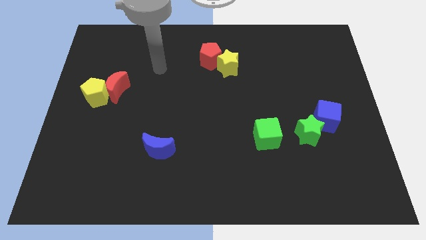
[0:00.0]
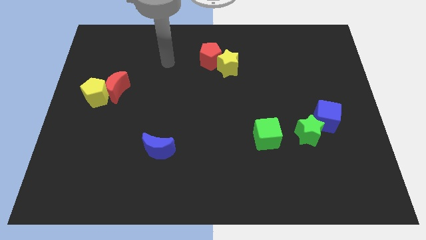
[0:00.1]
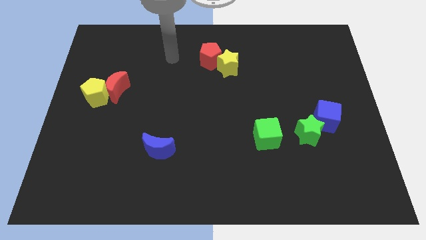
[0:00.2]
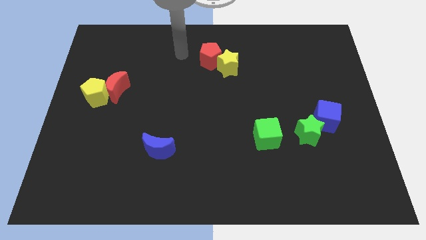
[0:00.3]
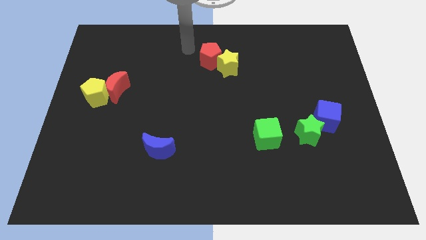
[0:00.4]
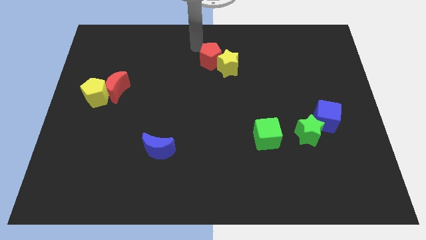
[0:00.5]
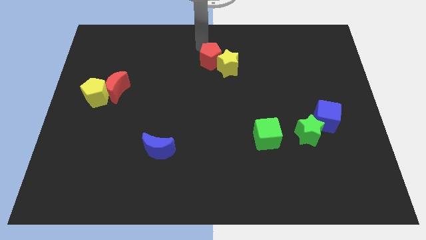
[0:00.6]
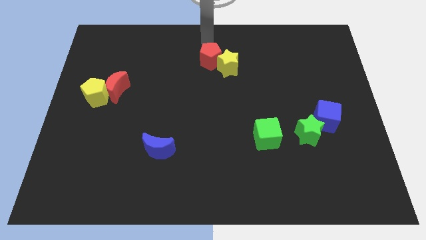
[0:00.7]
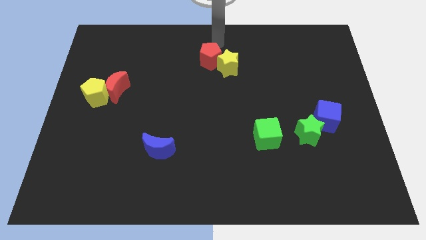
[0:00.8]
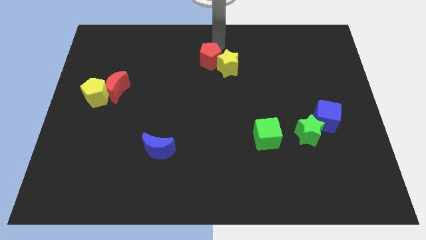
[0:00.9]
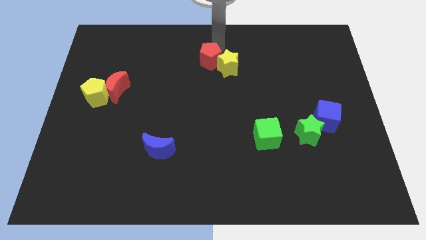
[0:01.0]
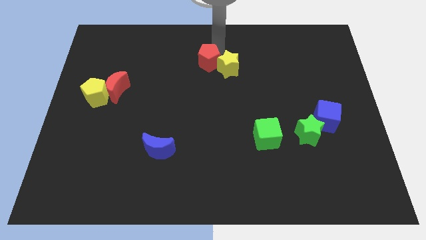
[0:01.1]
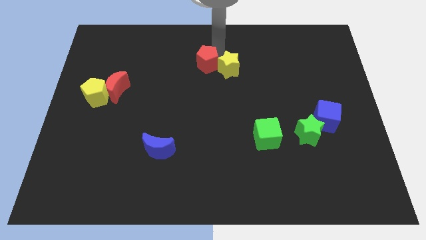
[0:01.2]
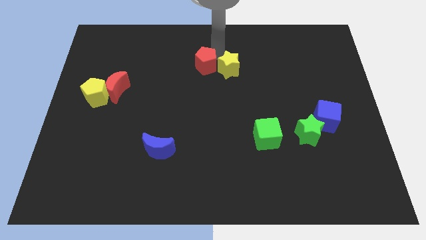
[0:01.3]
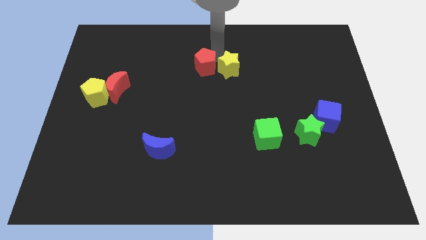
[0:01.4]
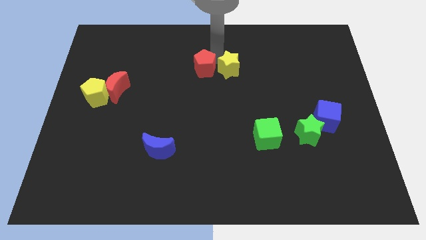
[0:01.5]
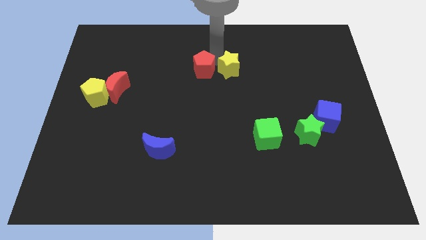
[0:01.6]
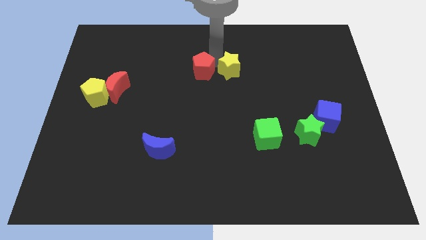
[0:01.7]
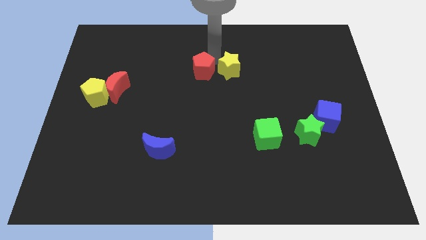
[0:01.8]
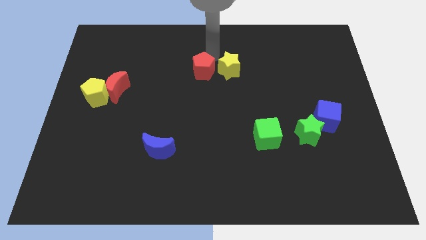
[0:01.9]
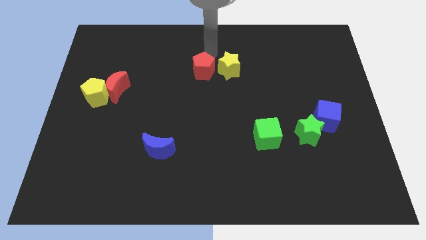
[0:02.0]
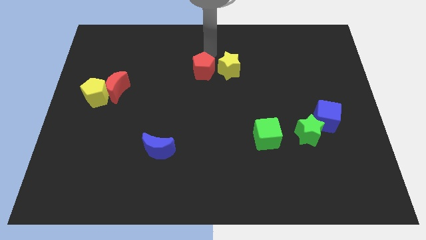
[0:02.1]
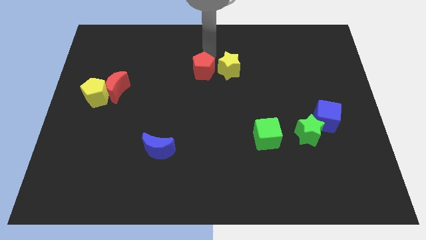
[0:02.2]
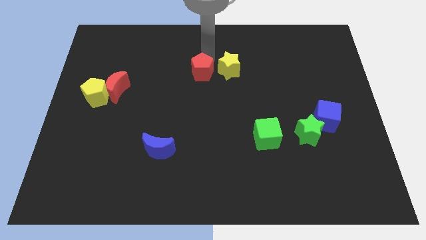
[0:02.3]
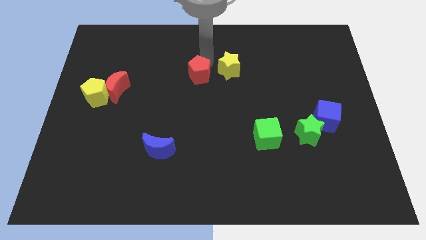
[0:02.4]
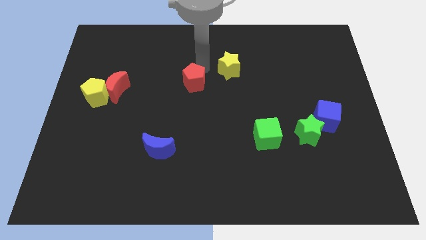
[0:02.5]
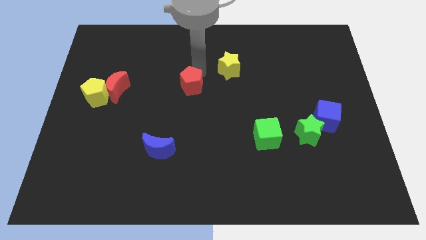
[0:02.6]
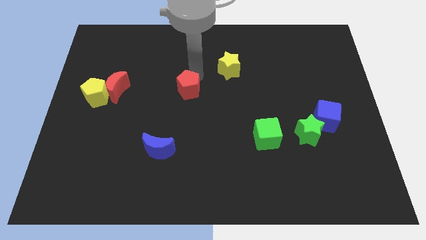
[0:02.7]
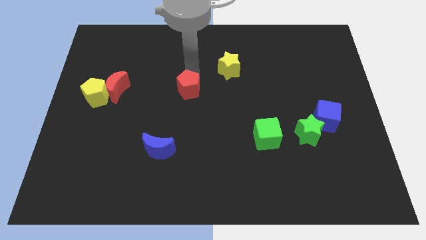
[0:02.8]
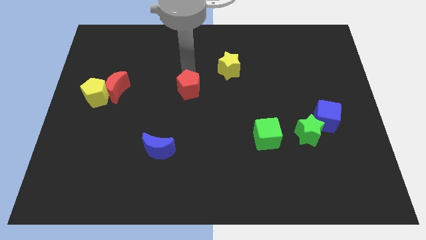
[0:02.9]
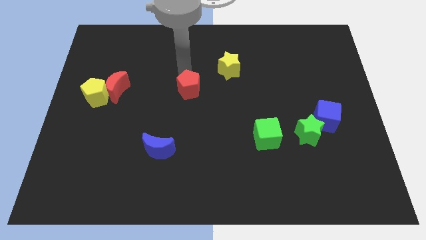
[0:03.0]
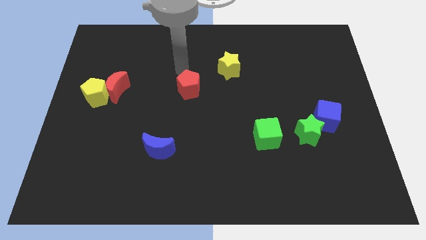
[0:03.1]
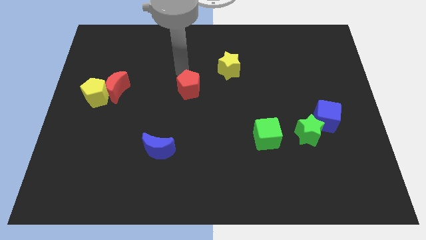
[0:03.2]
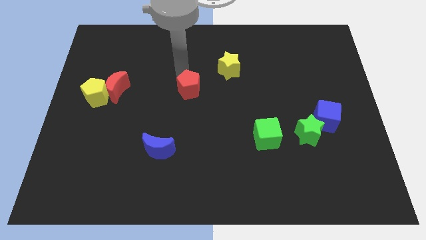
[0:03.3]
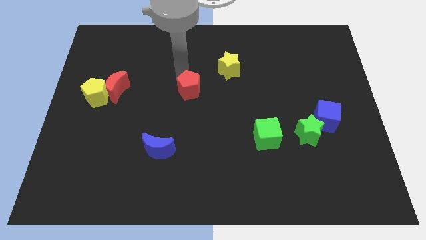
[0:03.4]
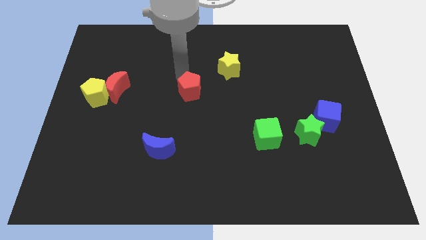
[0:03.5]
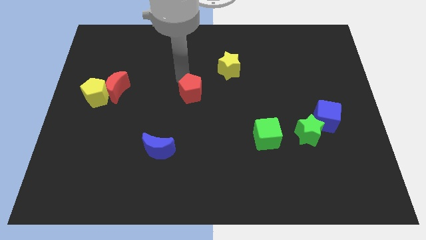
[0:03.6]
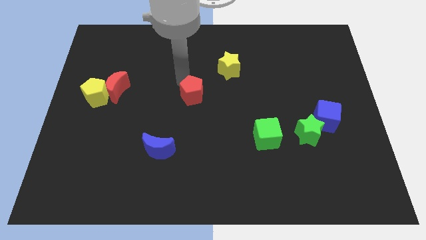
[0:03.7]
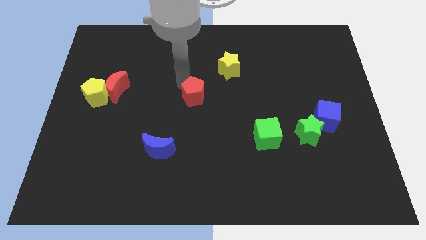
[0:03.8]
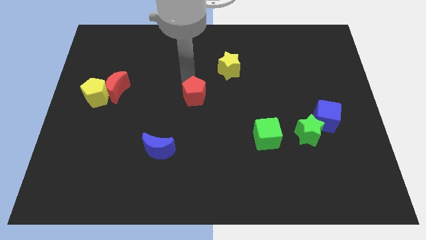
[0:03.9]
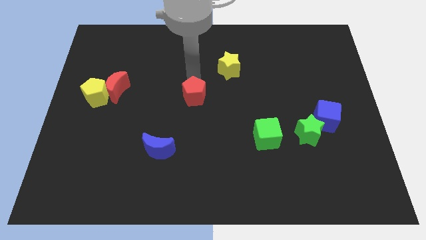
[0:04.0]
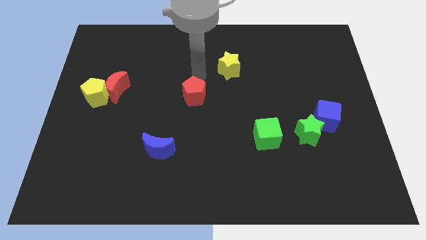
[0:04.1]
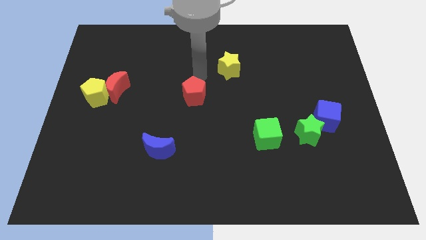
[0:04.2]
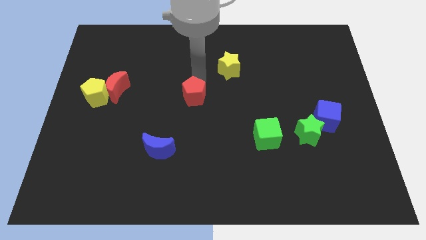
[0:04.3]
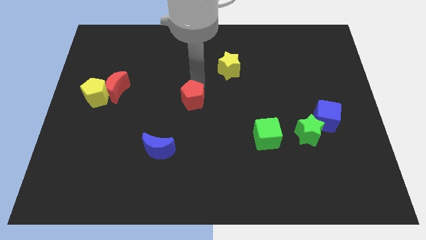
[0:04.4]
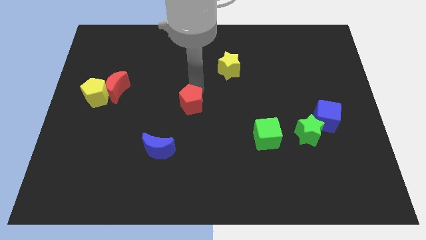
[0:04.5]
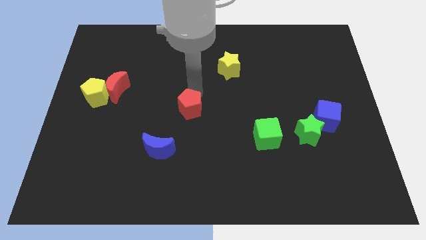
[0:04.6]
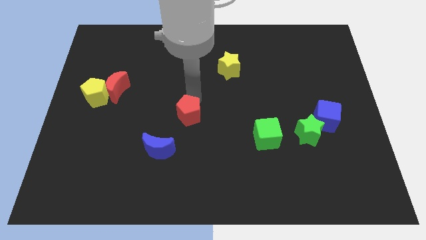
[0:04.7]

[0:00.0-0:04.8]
move the red pentagon to the top right side of the blue moon

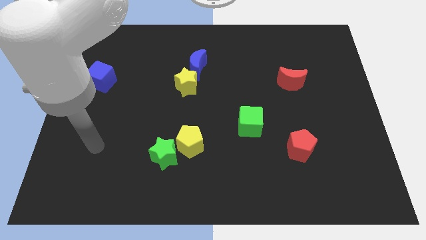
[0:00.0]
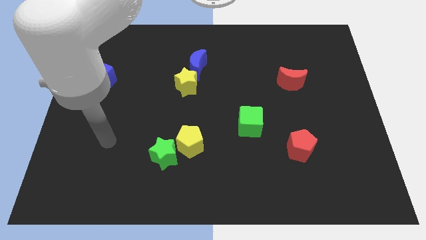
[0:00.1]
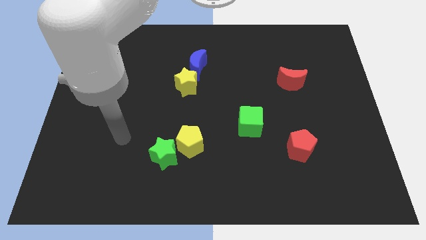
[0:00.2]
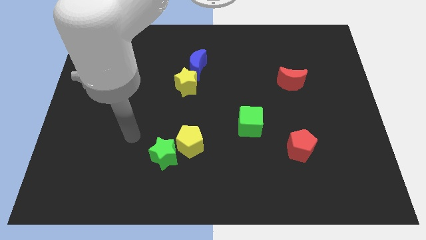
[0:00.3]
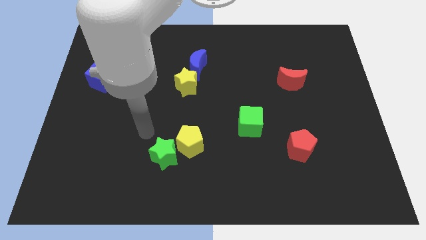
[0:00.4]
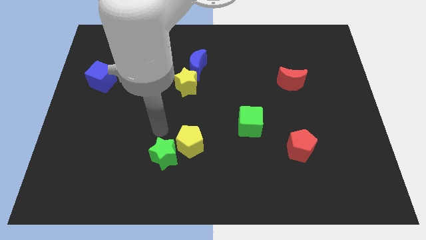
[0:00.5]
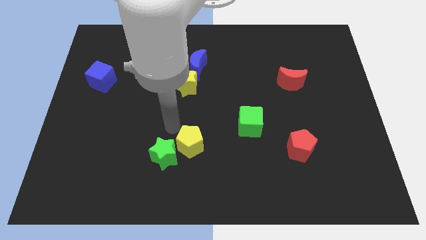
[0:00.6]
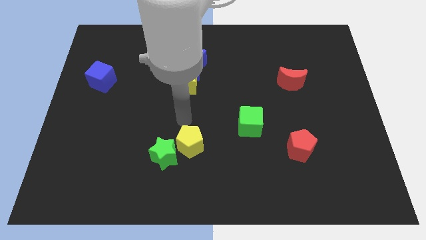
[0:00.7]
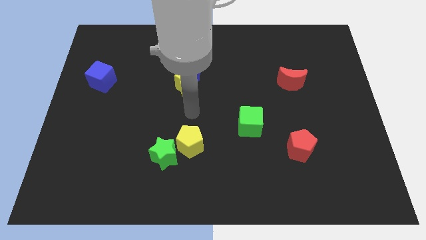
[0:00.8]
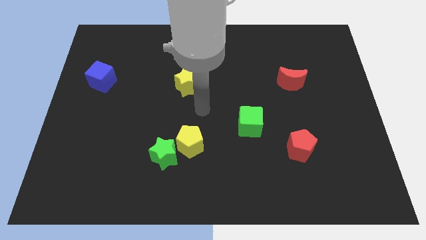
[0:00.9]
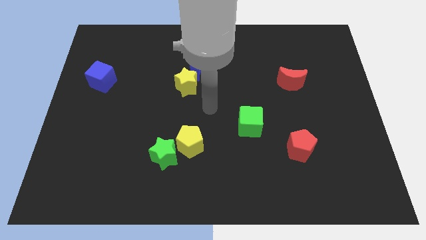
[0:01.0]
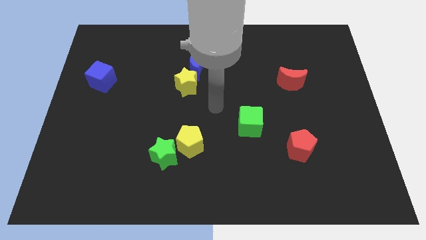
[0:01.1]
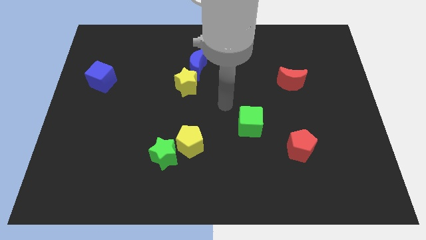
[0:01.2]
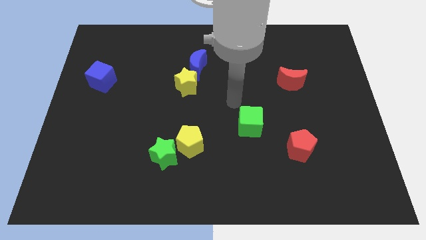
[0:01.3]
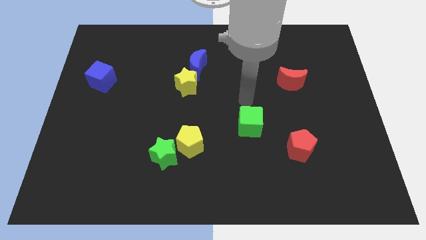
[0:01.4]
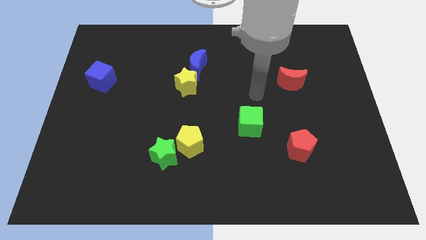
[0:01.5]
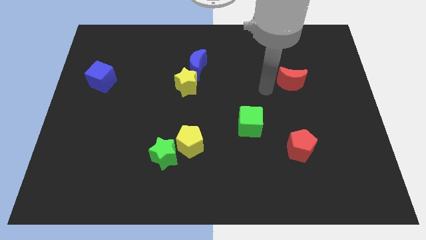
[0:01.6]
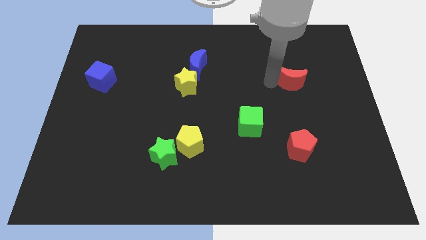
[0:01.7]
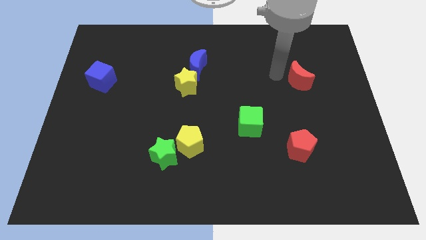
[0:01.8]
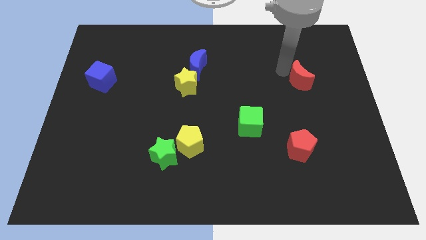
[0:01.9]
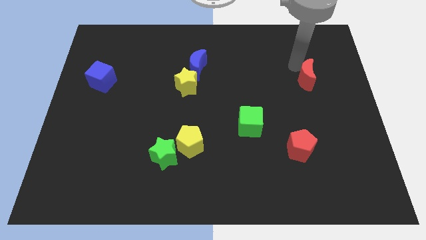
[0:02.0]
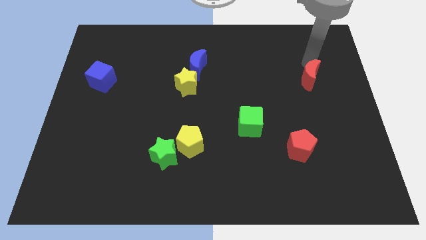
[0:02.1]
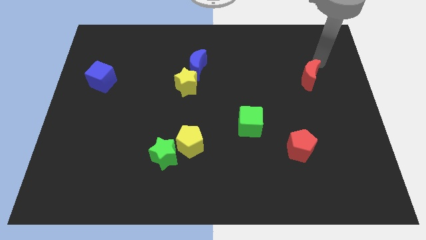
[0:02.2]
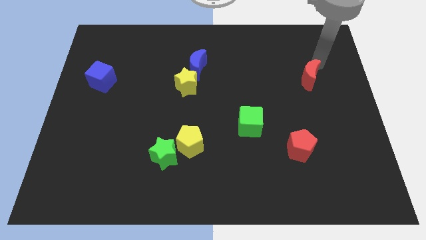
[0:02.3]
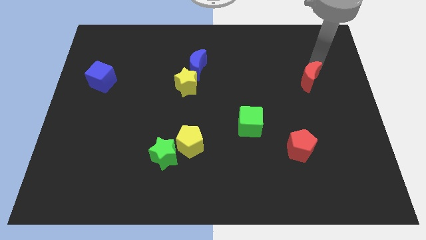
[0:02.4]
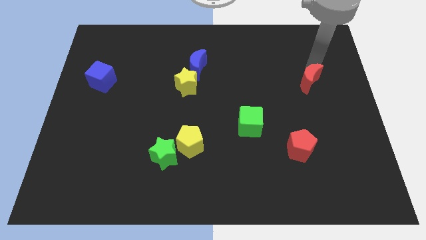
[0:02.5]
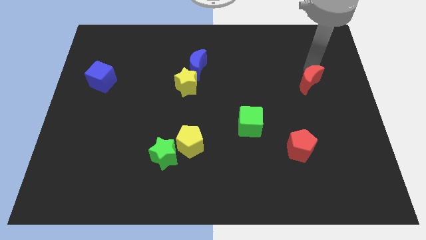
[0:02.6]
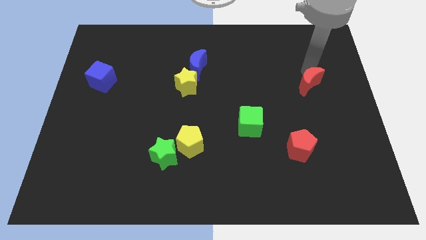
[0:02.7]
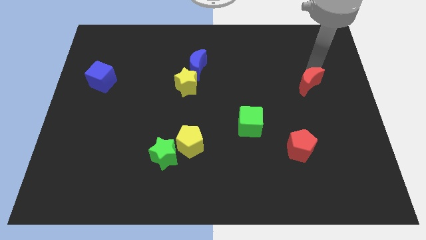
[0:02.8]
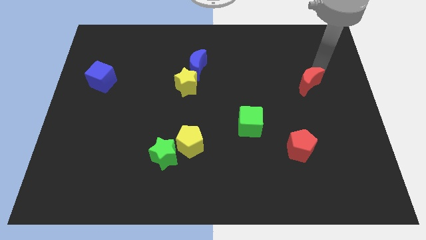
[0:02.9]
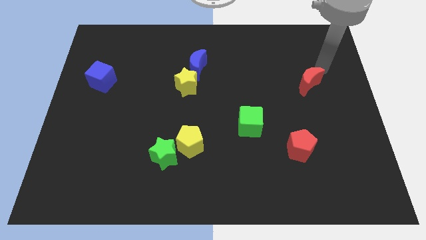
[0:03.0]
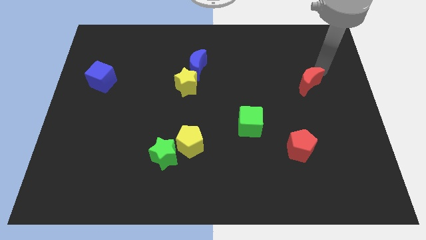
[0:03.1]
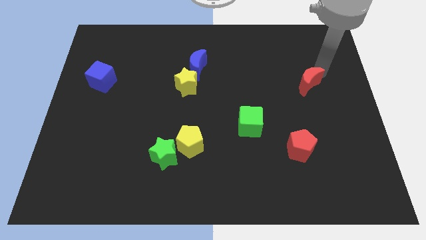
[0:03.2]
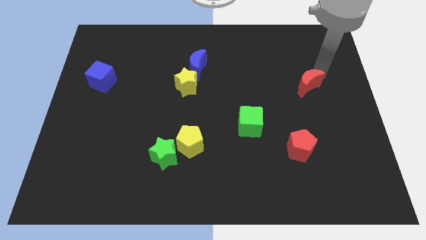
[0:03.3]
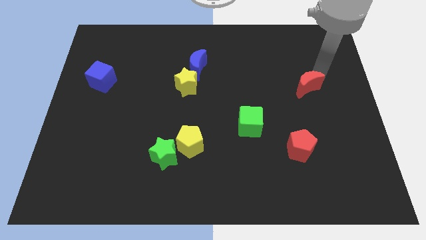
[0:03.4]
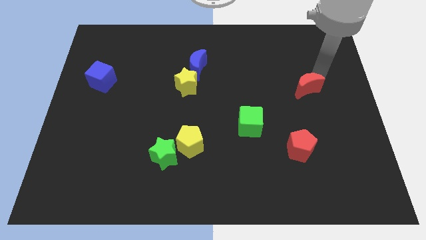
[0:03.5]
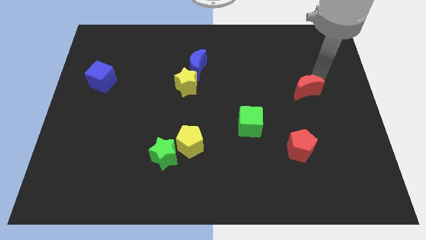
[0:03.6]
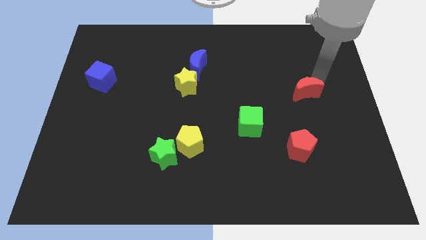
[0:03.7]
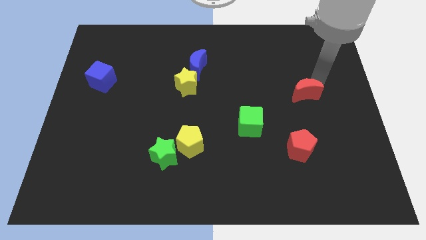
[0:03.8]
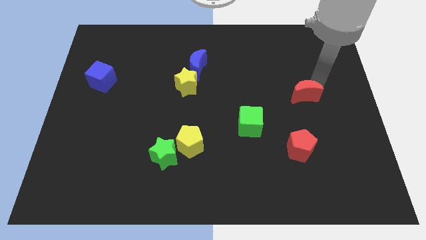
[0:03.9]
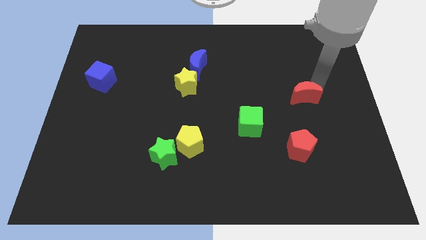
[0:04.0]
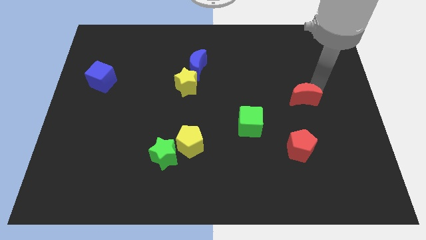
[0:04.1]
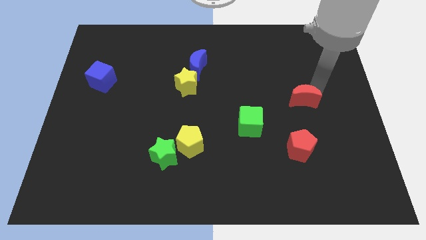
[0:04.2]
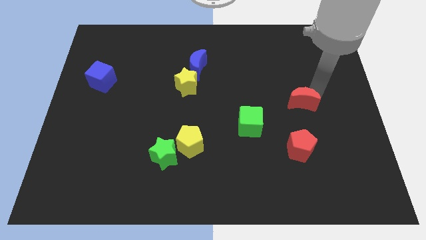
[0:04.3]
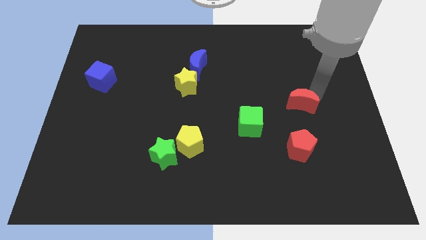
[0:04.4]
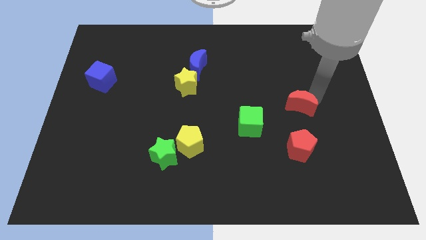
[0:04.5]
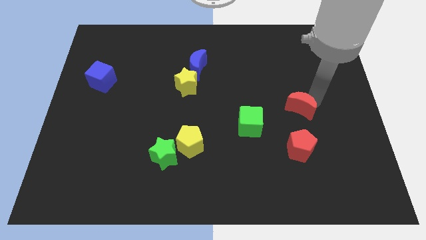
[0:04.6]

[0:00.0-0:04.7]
move the red moon to the right side of the green cube
